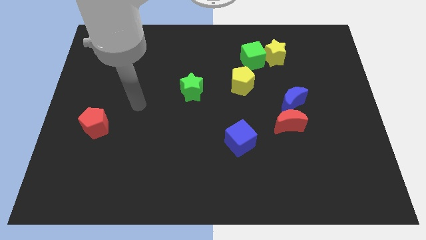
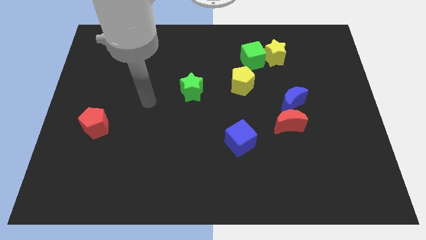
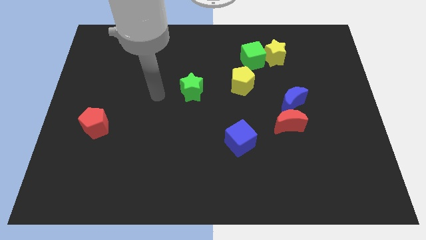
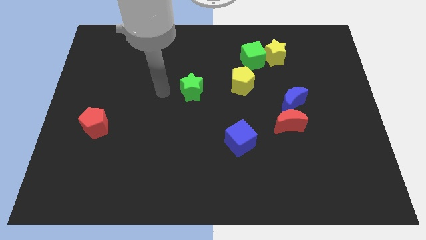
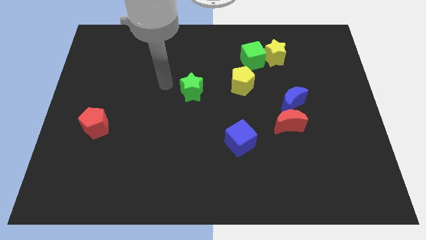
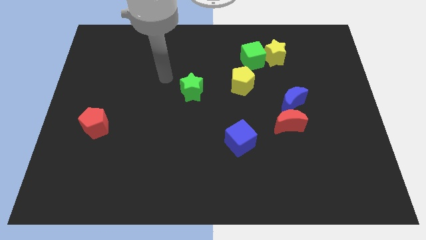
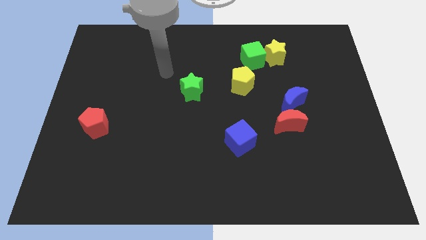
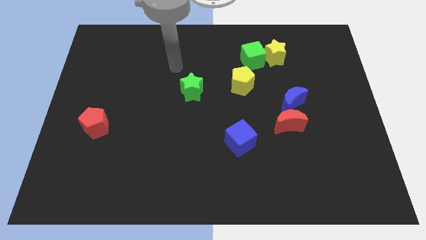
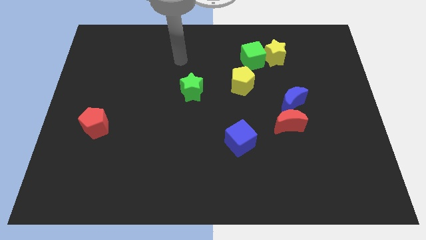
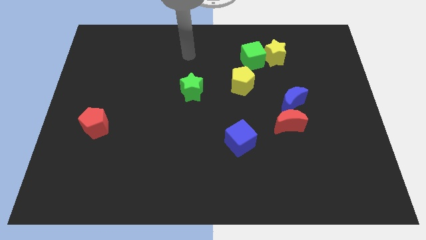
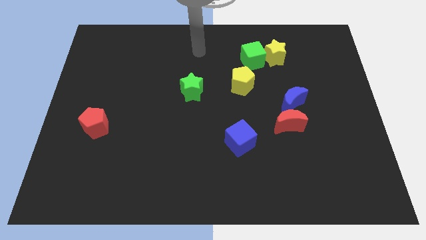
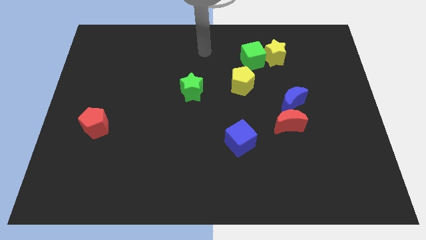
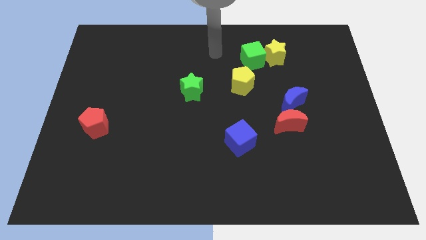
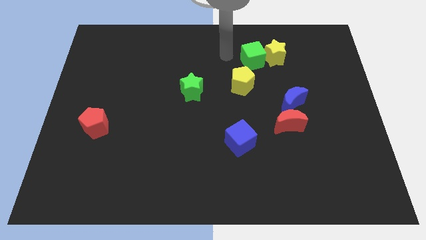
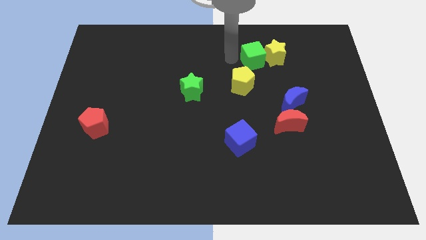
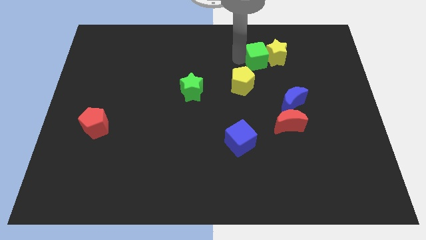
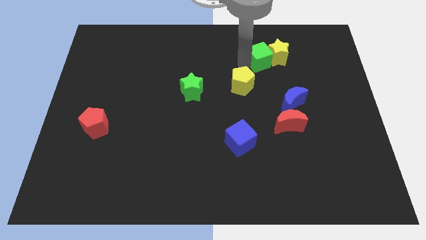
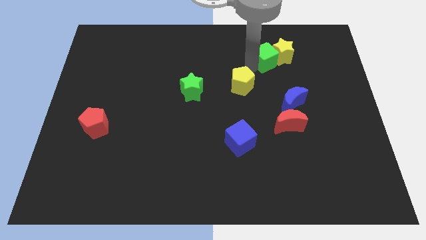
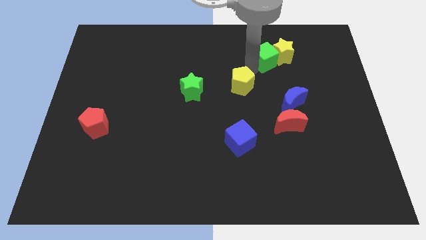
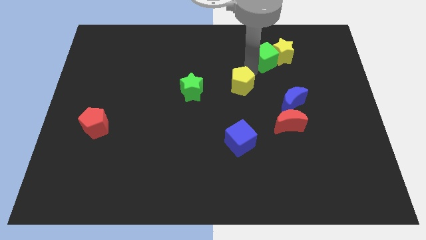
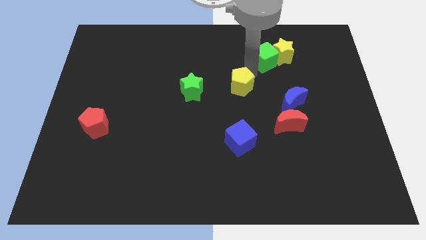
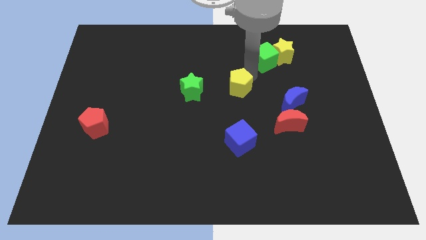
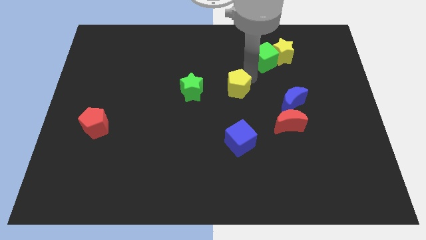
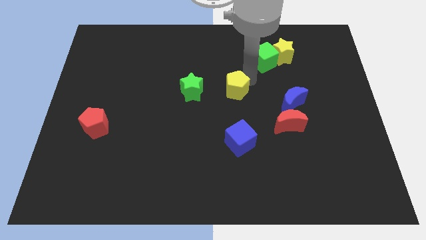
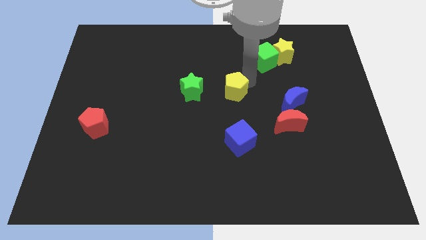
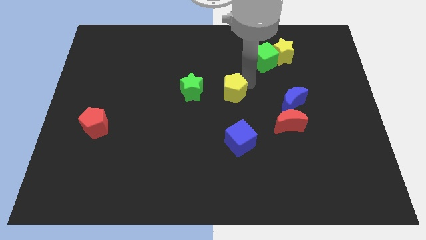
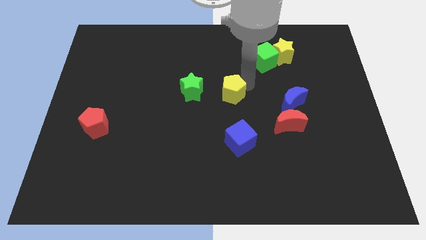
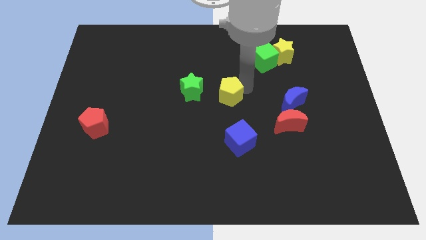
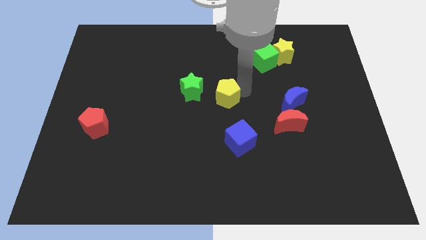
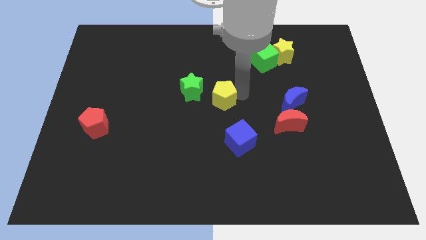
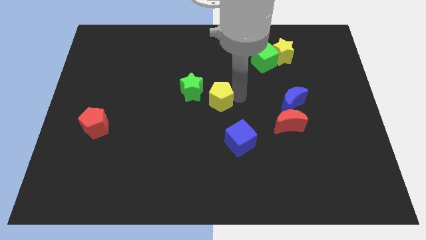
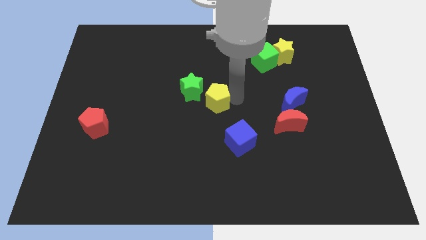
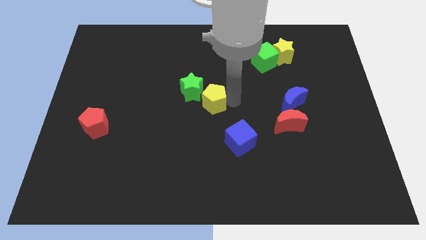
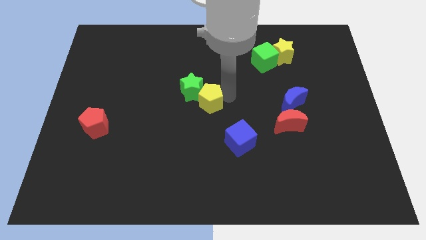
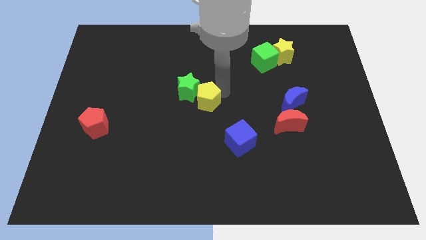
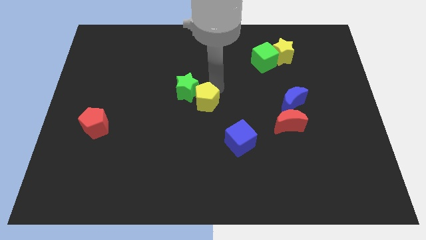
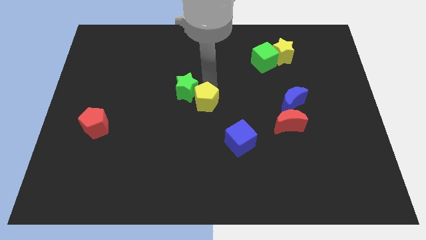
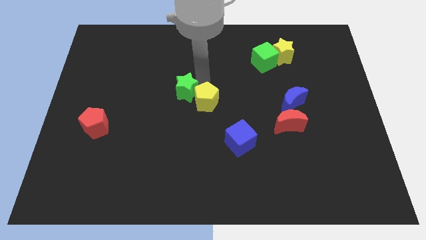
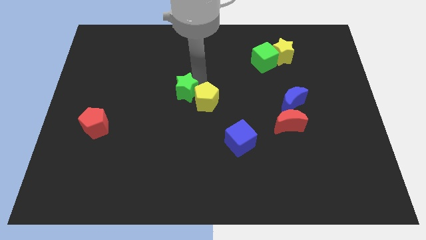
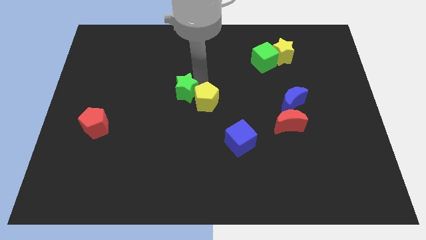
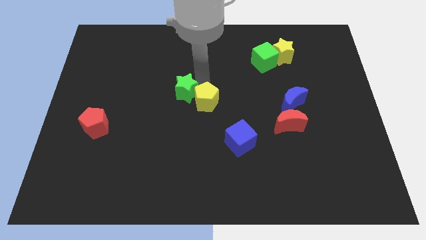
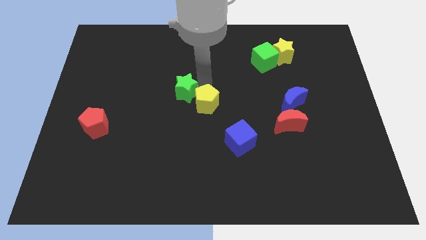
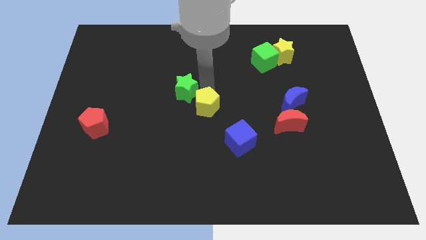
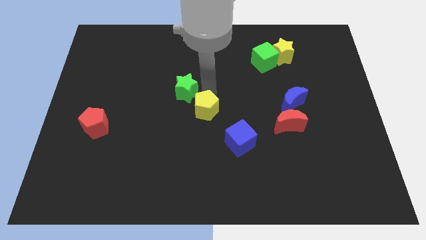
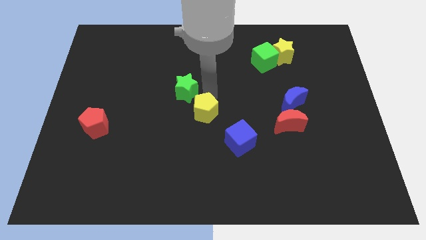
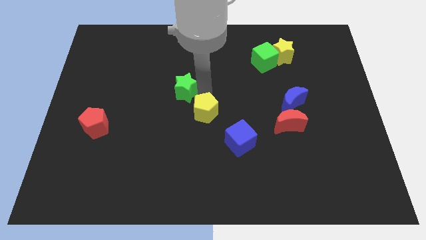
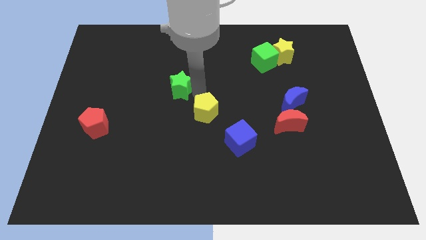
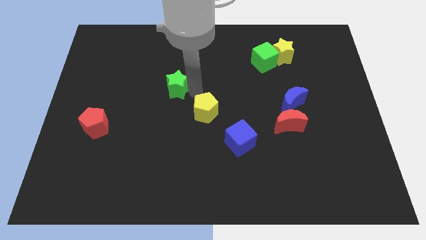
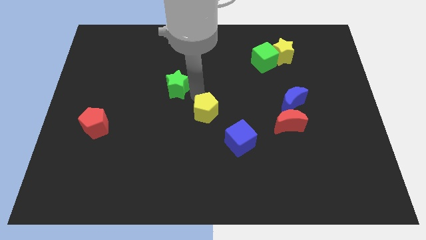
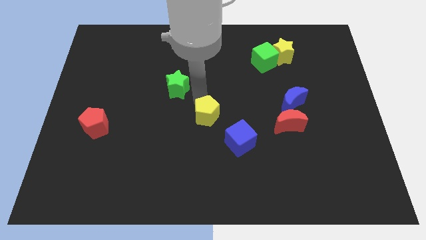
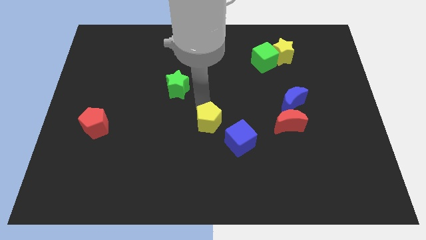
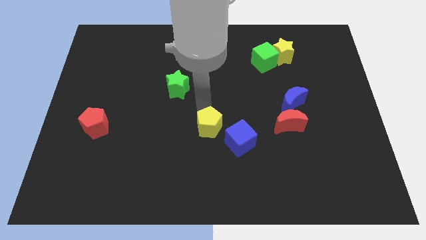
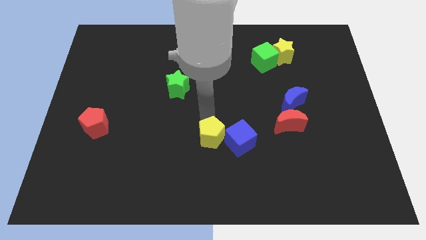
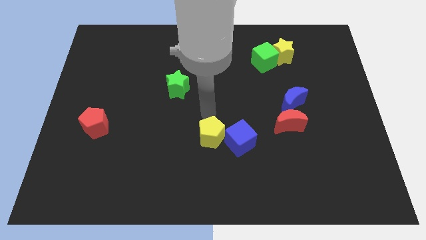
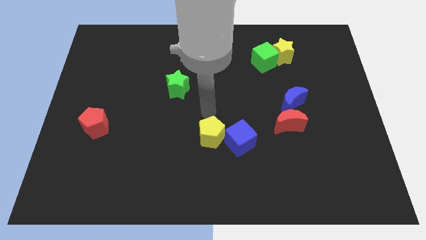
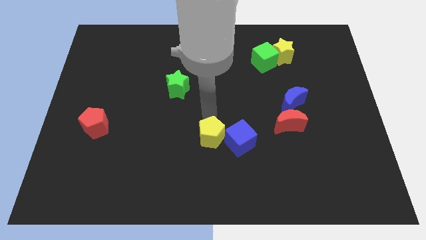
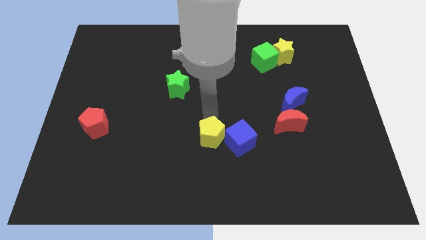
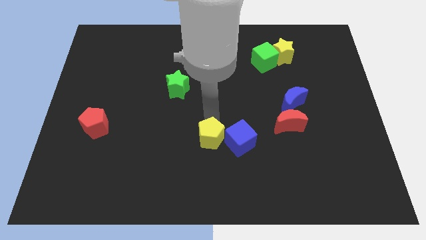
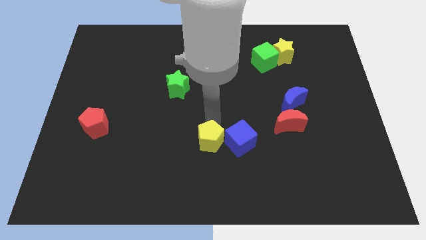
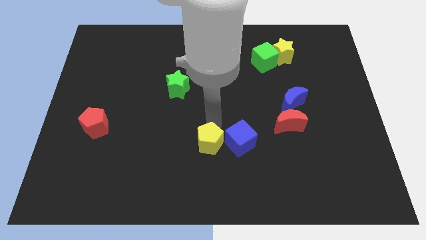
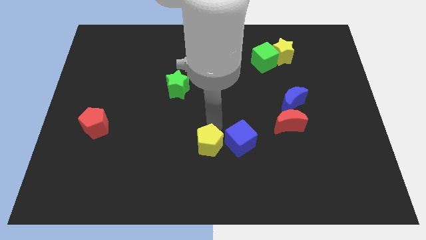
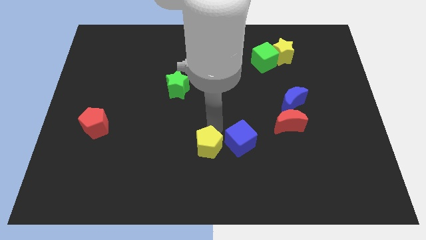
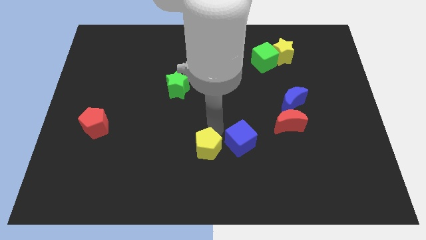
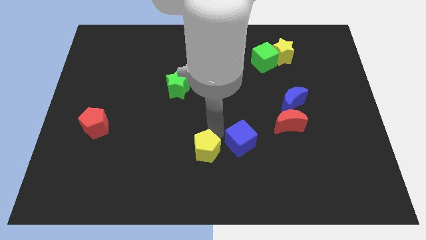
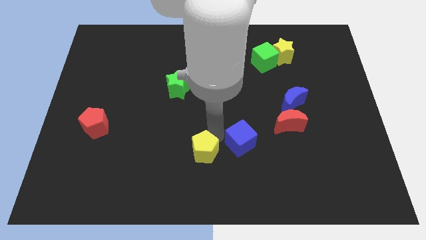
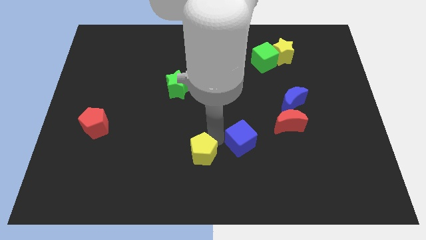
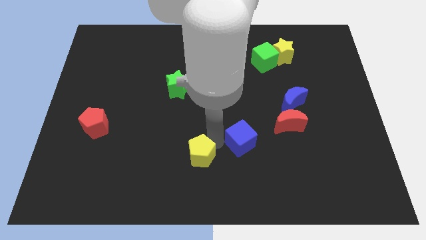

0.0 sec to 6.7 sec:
move the yellow pentagon to the bottom side
